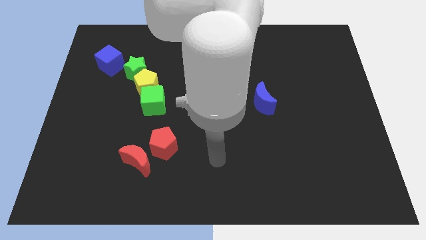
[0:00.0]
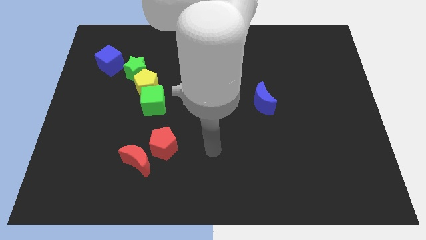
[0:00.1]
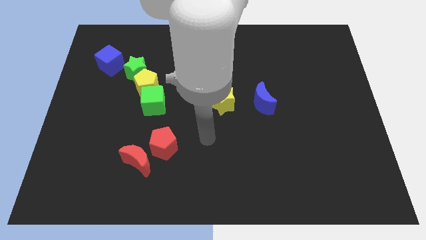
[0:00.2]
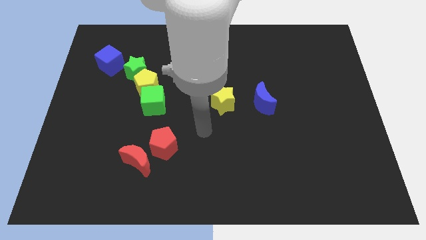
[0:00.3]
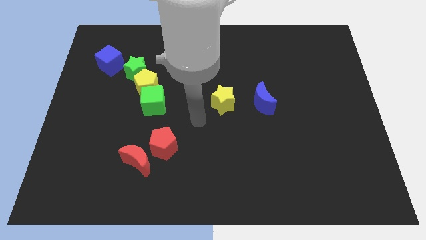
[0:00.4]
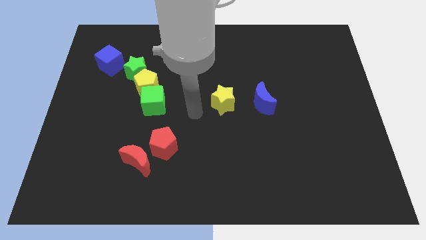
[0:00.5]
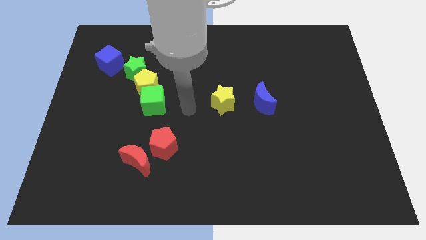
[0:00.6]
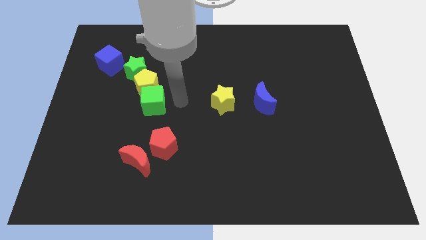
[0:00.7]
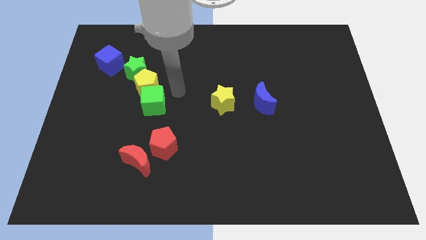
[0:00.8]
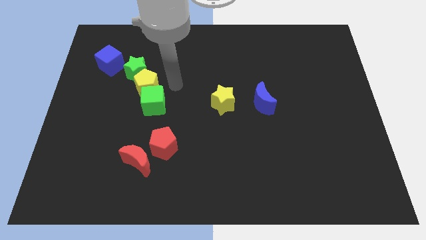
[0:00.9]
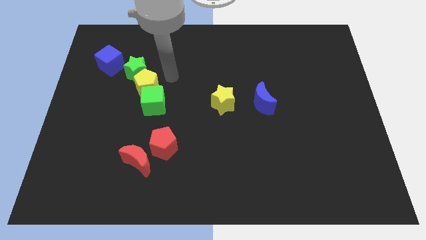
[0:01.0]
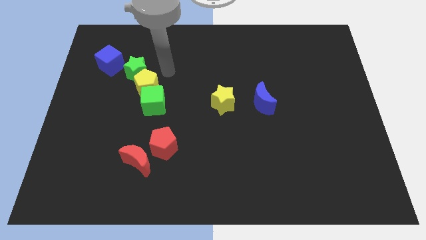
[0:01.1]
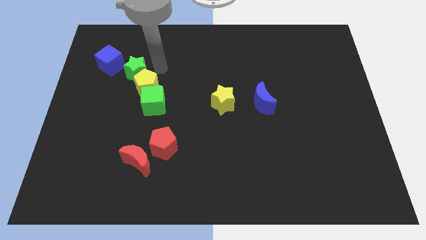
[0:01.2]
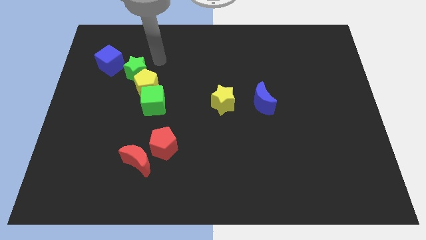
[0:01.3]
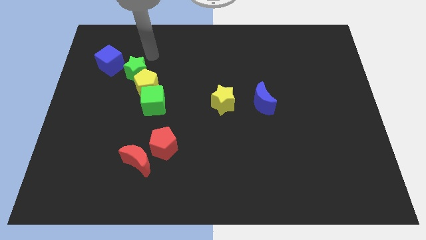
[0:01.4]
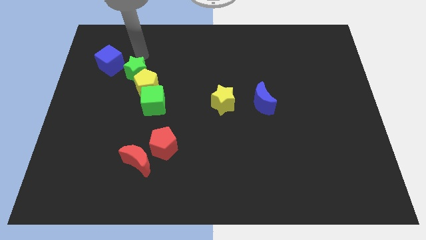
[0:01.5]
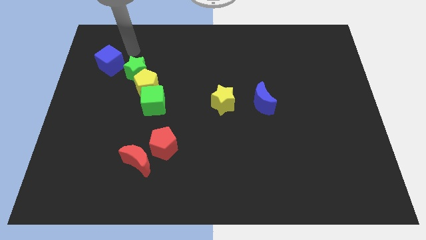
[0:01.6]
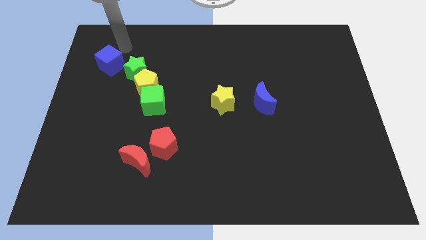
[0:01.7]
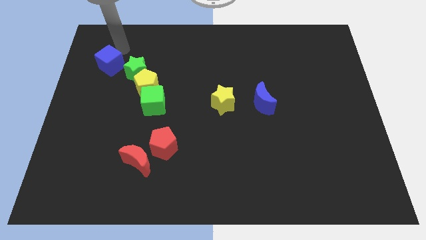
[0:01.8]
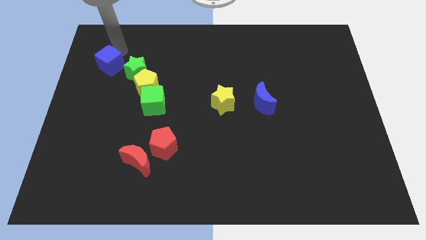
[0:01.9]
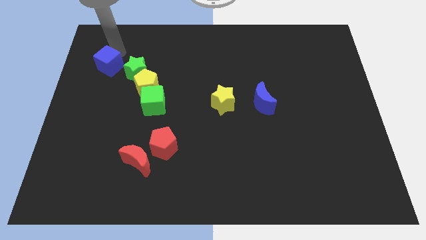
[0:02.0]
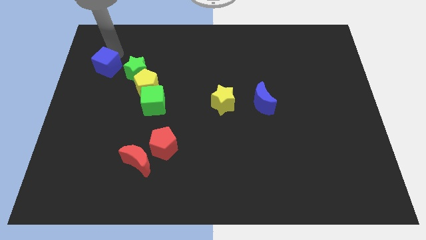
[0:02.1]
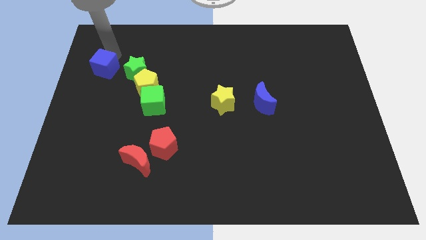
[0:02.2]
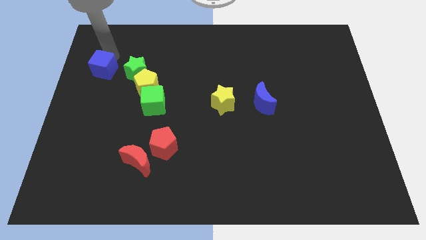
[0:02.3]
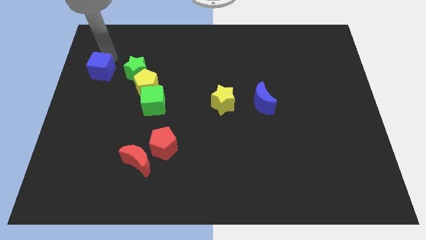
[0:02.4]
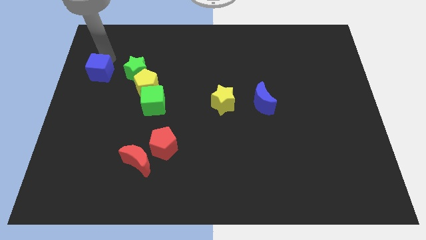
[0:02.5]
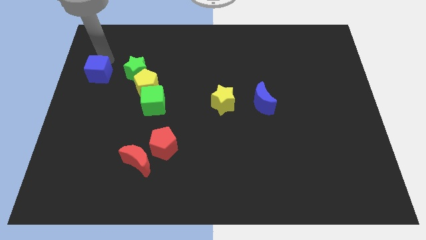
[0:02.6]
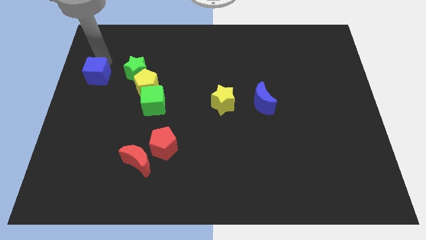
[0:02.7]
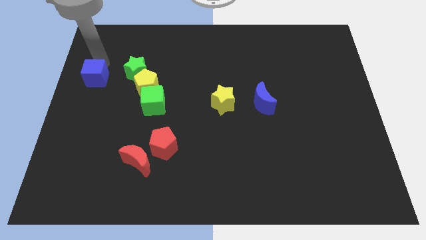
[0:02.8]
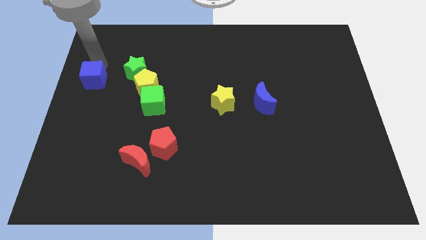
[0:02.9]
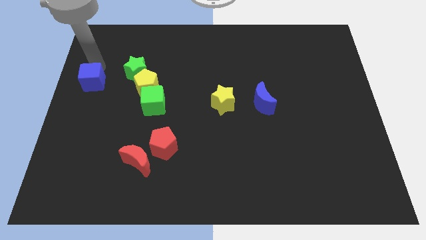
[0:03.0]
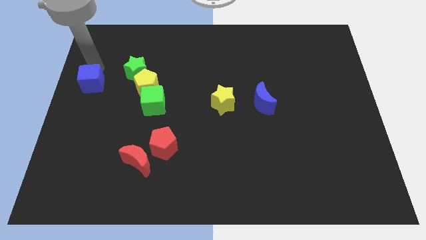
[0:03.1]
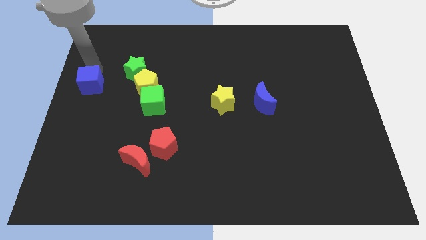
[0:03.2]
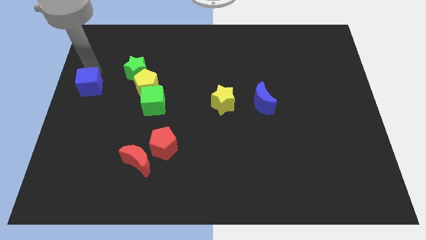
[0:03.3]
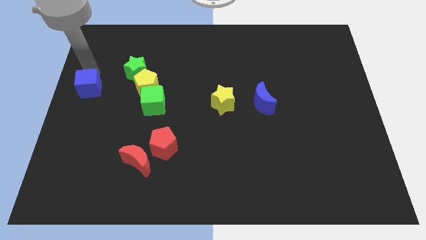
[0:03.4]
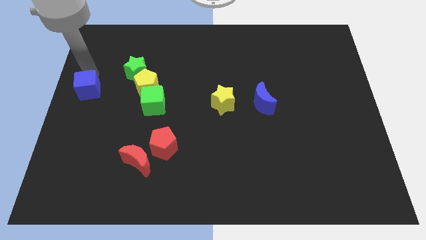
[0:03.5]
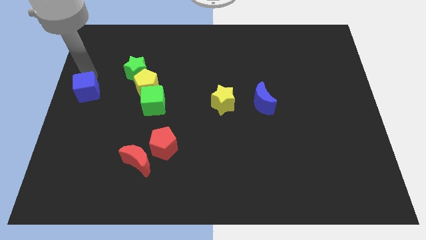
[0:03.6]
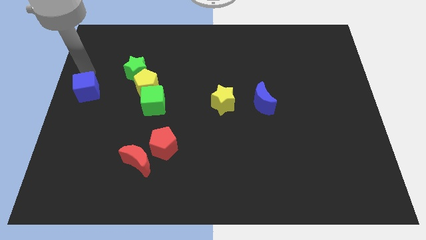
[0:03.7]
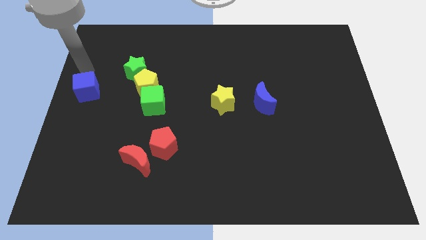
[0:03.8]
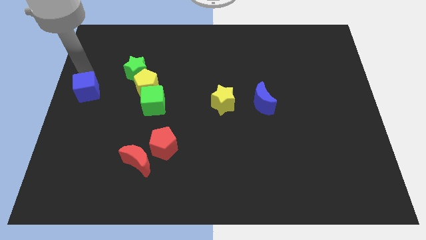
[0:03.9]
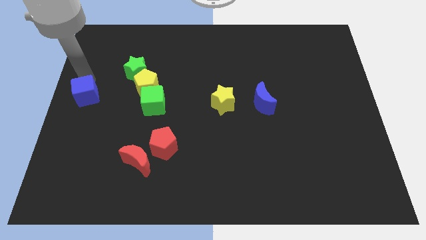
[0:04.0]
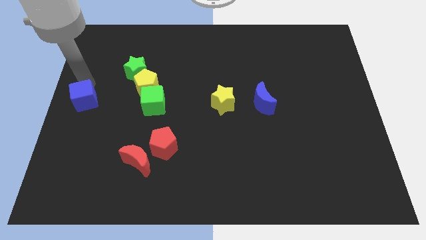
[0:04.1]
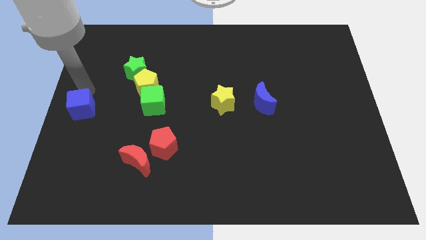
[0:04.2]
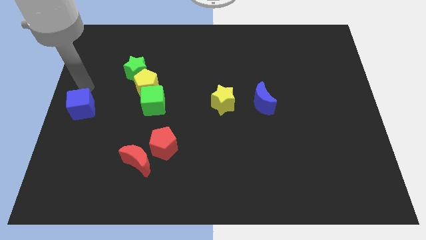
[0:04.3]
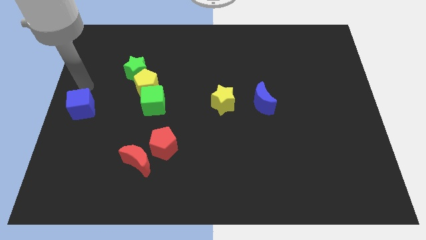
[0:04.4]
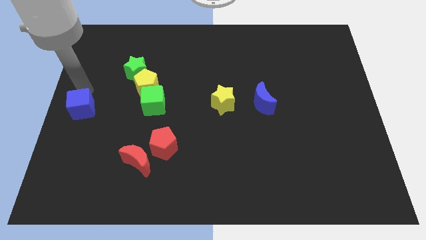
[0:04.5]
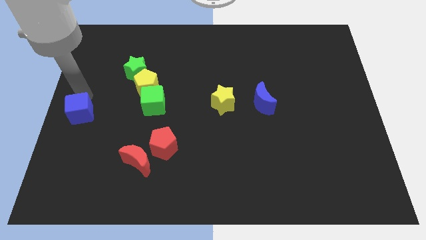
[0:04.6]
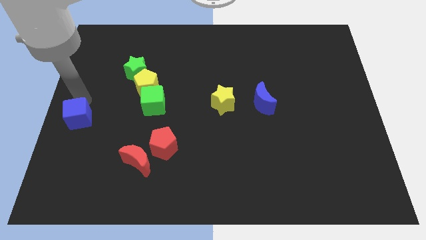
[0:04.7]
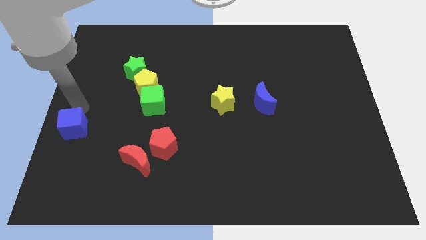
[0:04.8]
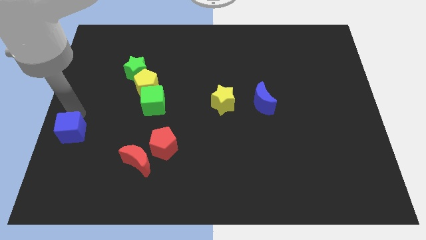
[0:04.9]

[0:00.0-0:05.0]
push the blue cube down

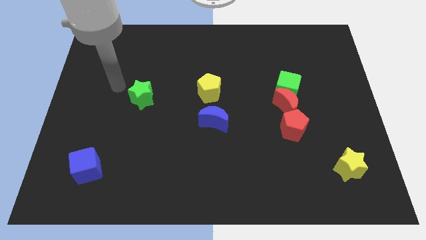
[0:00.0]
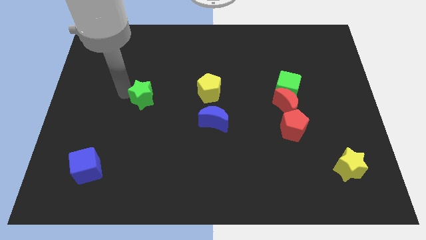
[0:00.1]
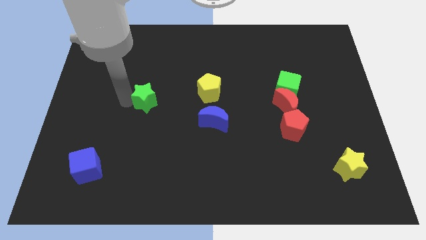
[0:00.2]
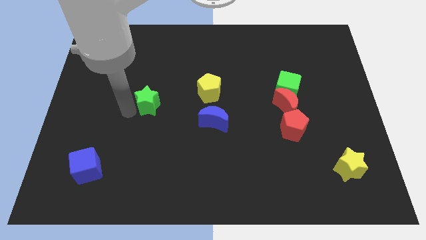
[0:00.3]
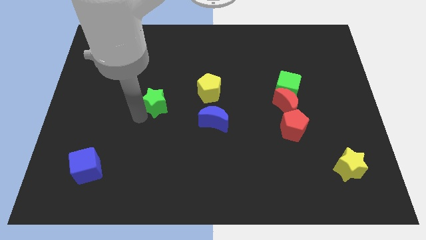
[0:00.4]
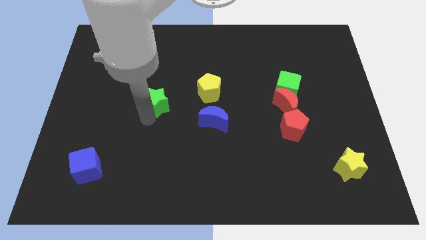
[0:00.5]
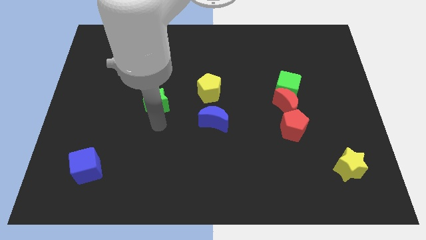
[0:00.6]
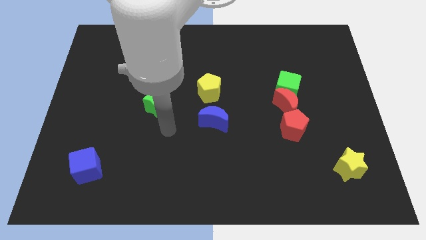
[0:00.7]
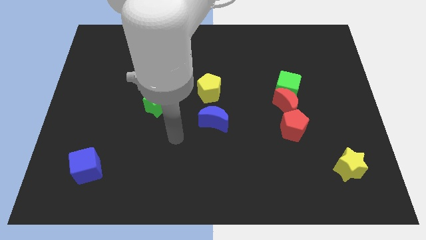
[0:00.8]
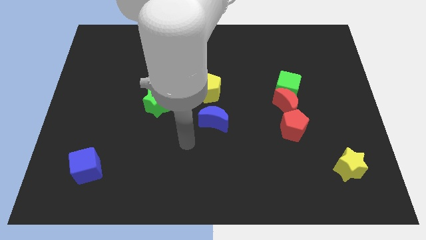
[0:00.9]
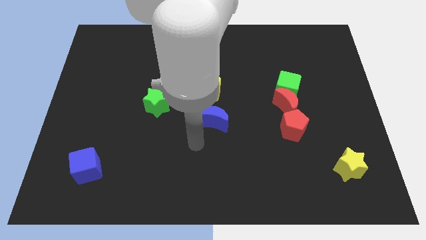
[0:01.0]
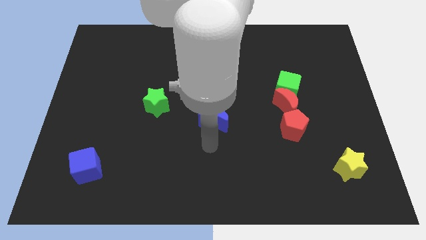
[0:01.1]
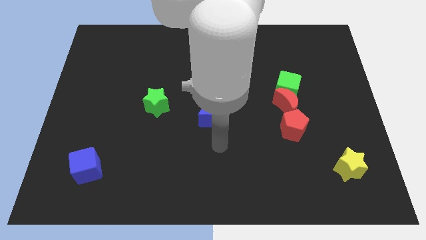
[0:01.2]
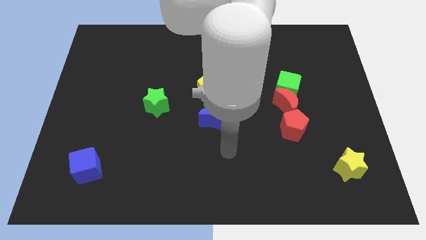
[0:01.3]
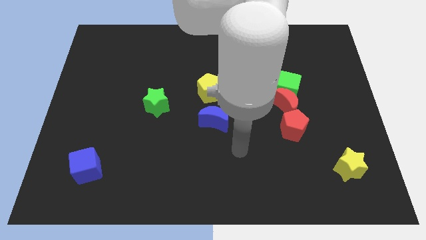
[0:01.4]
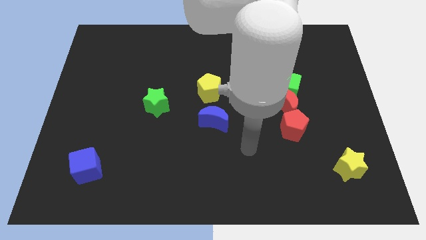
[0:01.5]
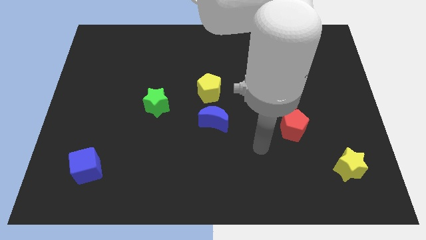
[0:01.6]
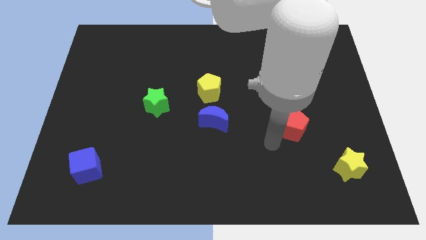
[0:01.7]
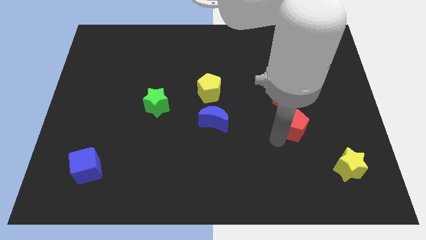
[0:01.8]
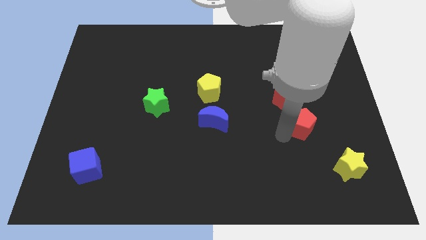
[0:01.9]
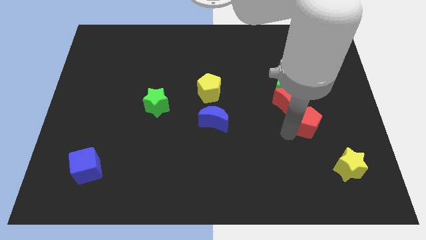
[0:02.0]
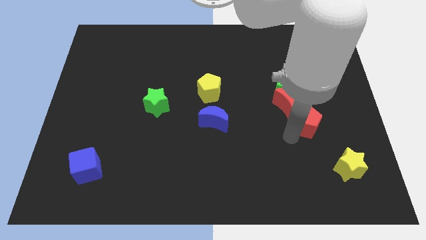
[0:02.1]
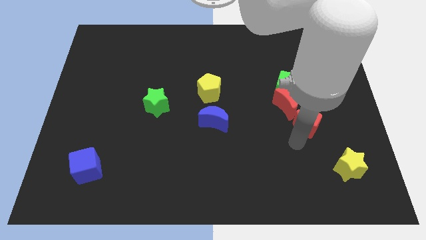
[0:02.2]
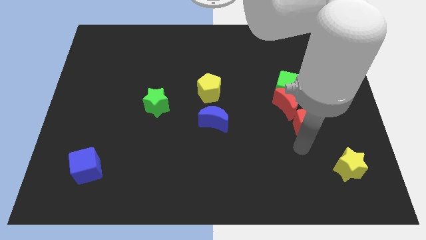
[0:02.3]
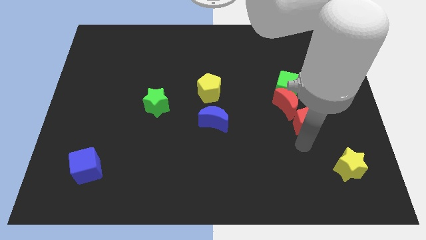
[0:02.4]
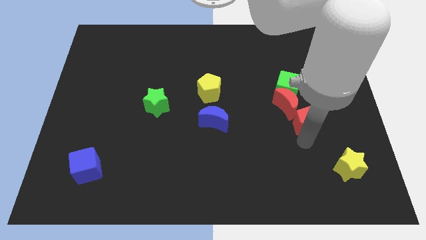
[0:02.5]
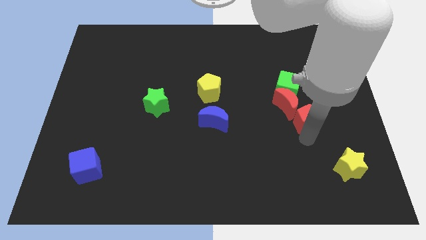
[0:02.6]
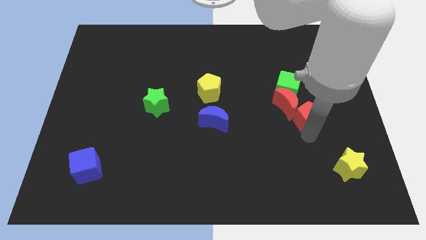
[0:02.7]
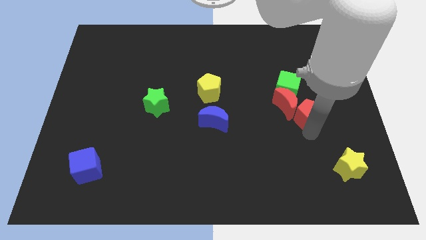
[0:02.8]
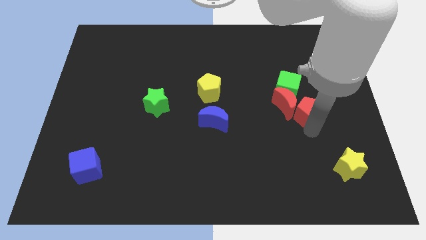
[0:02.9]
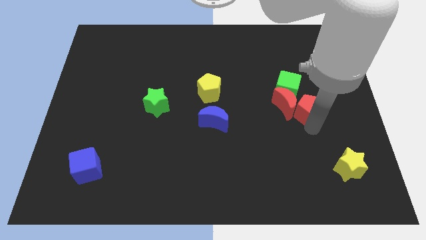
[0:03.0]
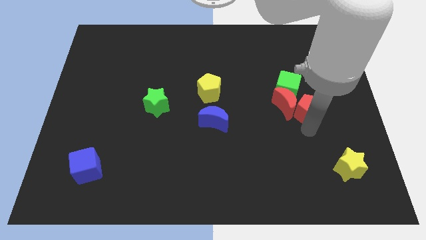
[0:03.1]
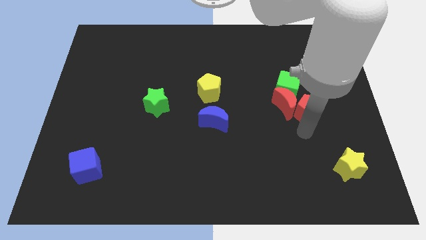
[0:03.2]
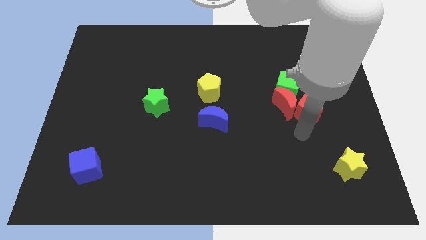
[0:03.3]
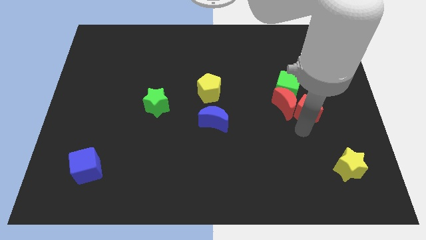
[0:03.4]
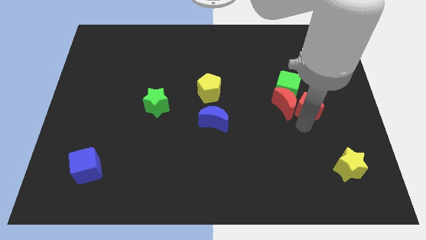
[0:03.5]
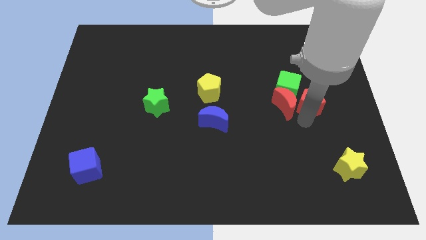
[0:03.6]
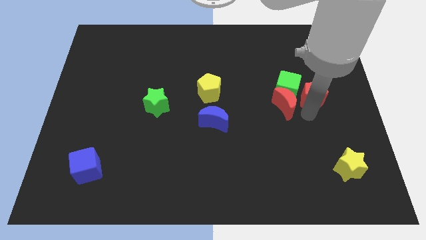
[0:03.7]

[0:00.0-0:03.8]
slide the red pentagon slightly upwards
